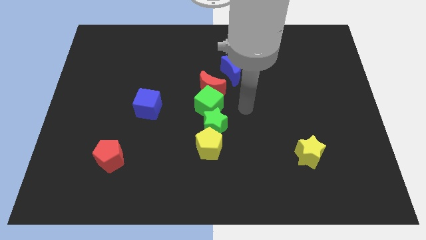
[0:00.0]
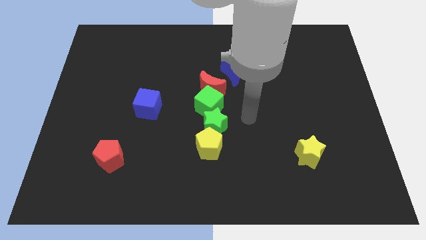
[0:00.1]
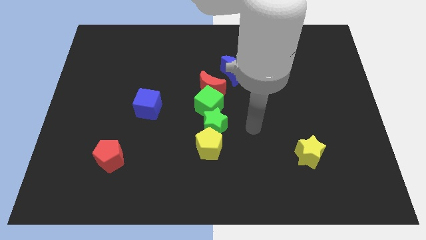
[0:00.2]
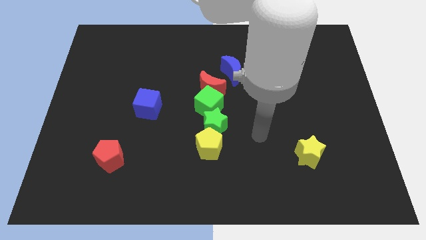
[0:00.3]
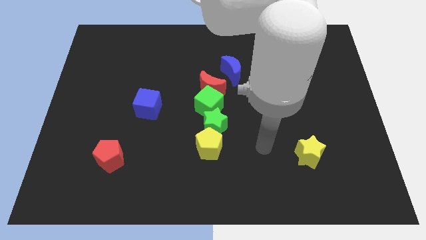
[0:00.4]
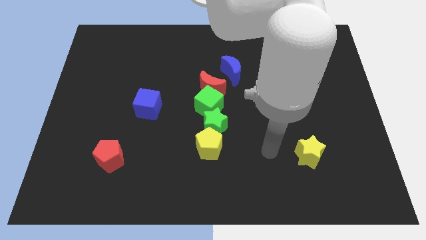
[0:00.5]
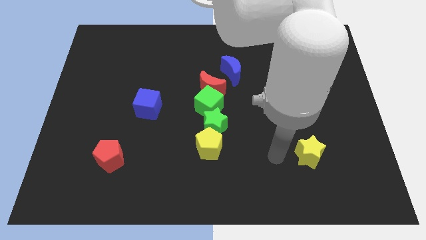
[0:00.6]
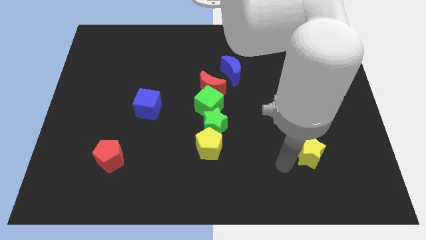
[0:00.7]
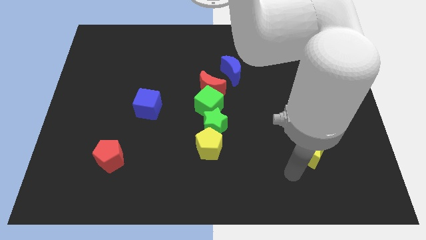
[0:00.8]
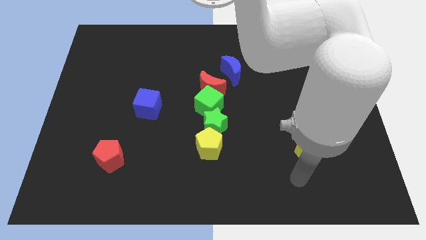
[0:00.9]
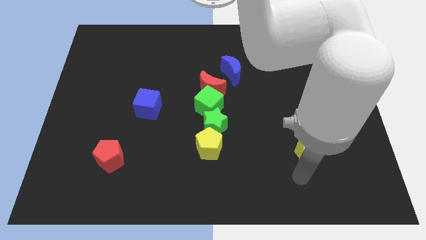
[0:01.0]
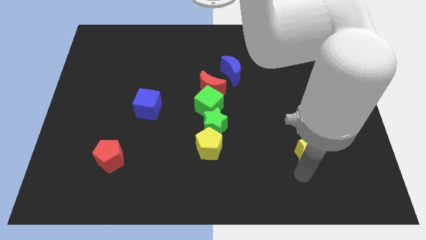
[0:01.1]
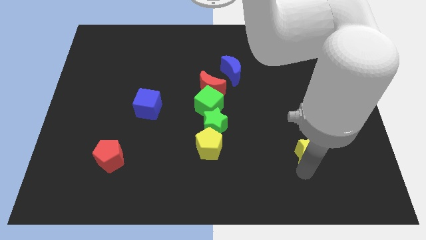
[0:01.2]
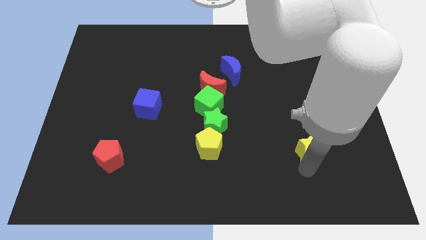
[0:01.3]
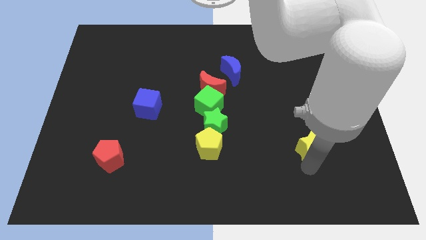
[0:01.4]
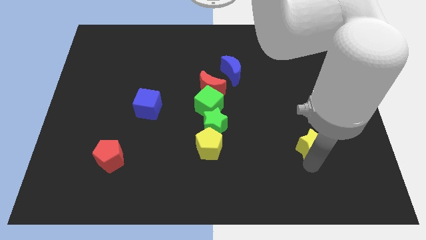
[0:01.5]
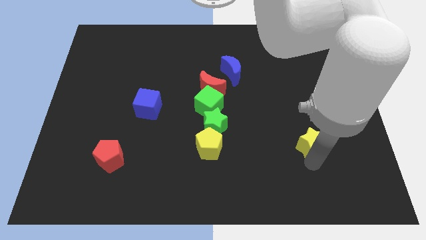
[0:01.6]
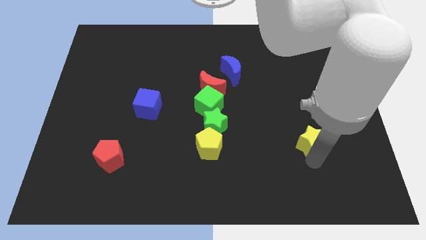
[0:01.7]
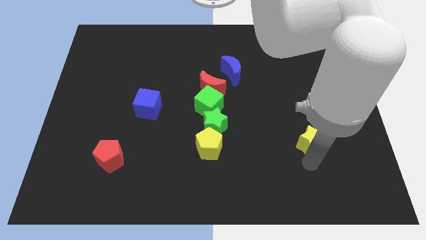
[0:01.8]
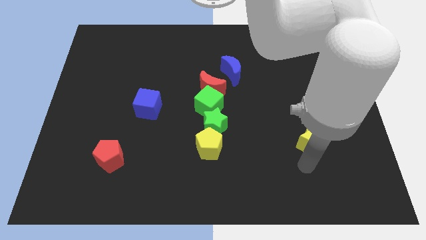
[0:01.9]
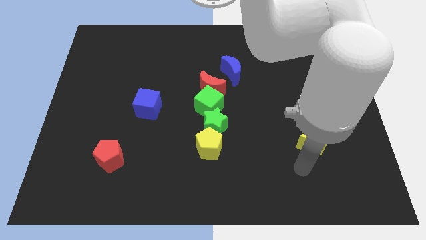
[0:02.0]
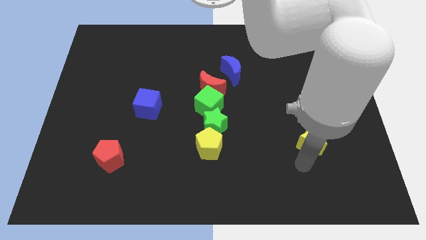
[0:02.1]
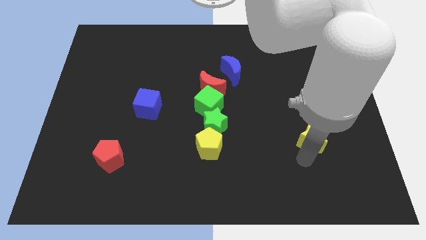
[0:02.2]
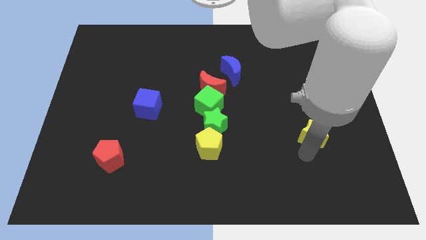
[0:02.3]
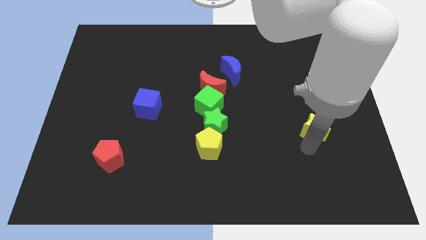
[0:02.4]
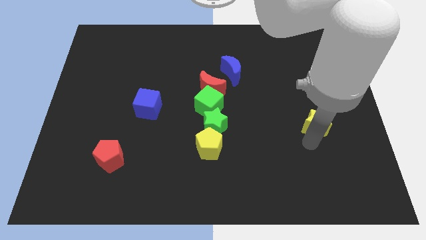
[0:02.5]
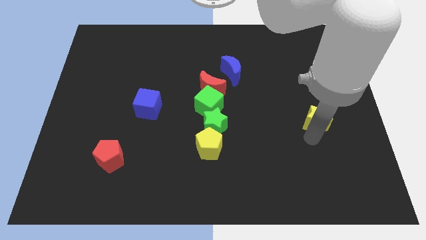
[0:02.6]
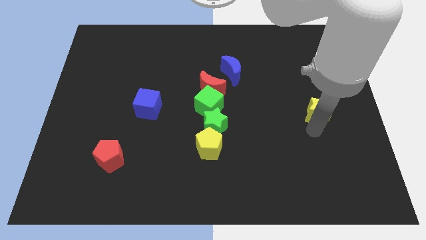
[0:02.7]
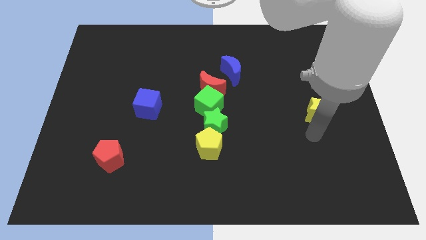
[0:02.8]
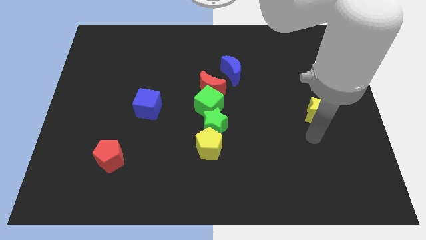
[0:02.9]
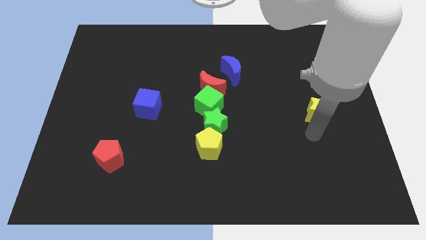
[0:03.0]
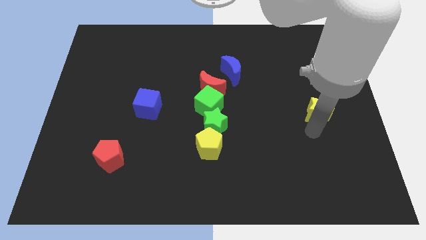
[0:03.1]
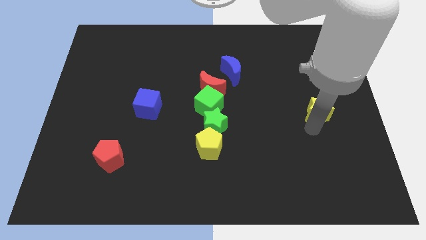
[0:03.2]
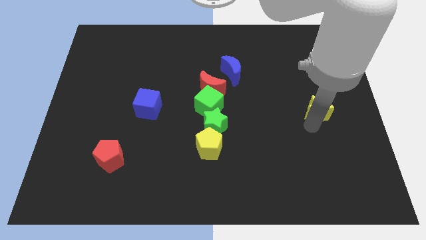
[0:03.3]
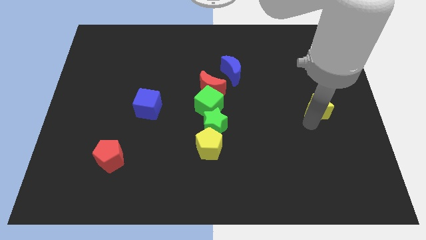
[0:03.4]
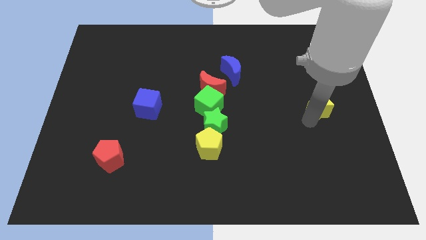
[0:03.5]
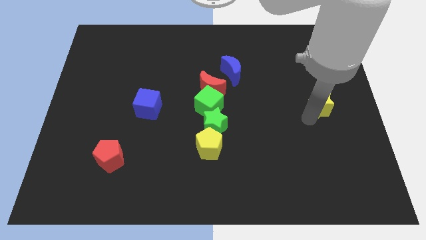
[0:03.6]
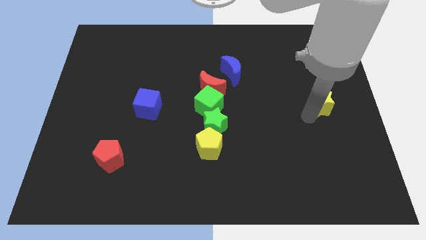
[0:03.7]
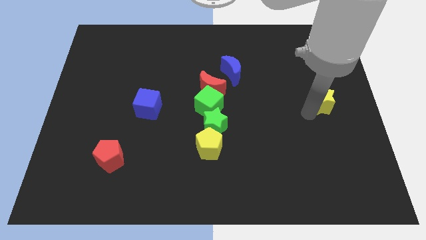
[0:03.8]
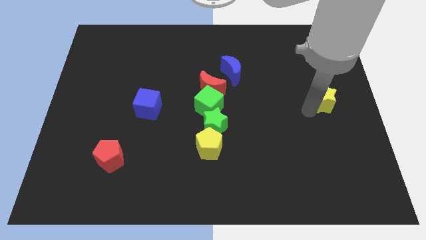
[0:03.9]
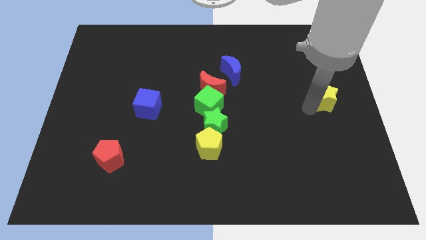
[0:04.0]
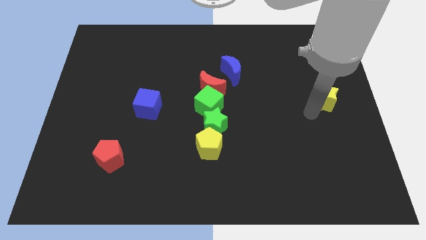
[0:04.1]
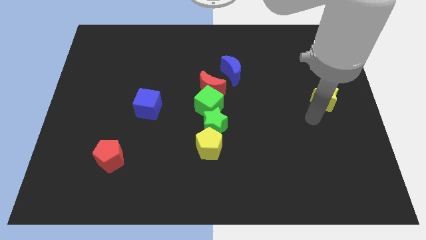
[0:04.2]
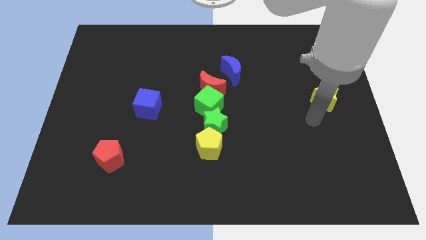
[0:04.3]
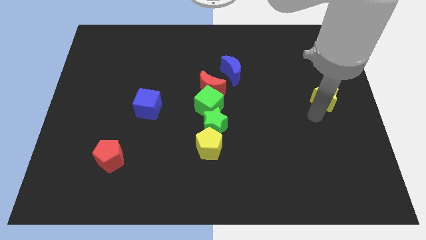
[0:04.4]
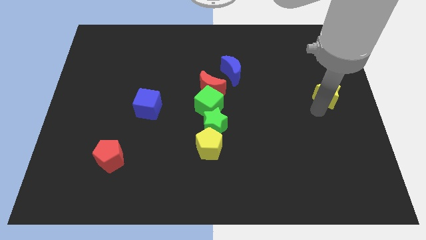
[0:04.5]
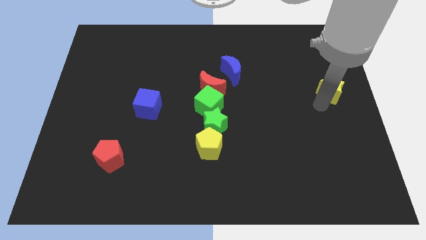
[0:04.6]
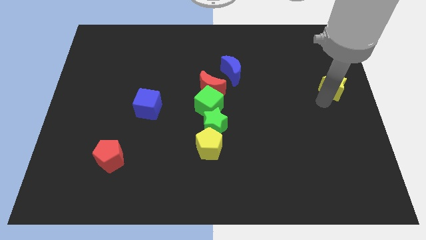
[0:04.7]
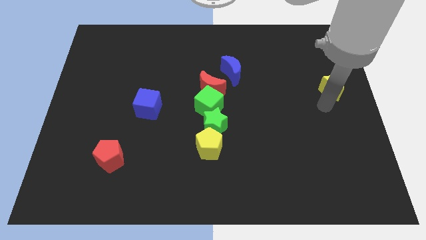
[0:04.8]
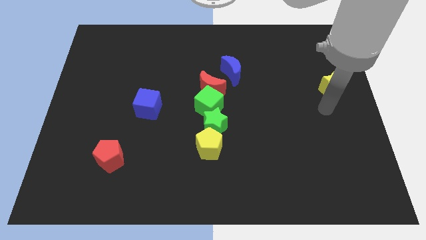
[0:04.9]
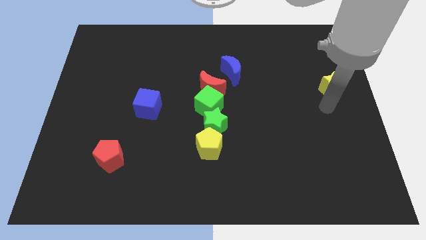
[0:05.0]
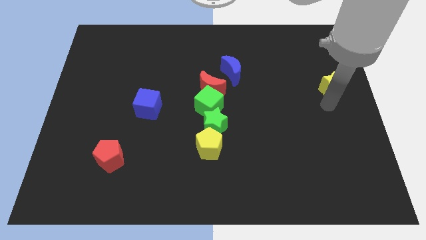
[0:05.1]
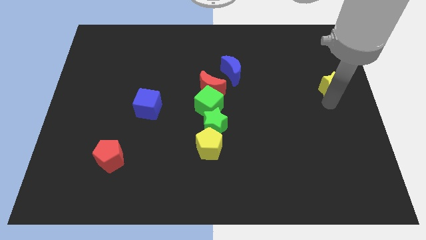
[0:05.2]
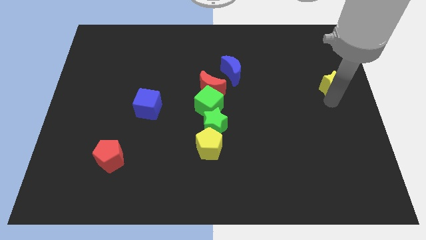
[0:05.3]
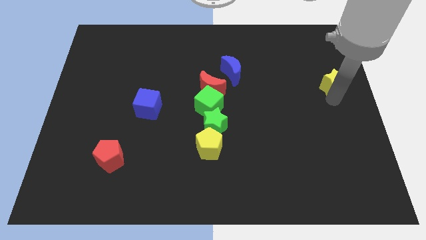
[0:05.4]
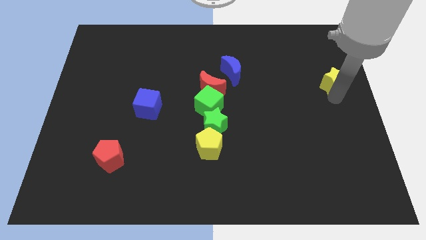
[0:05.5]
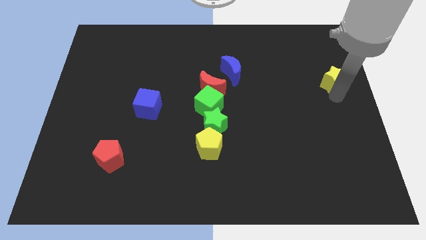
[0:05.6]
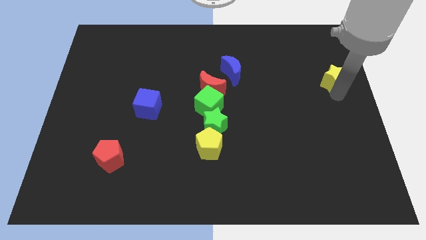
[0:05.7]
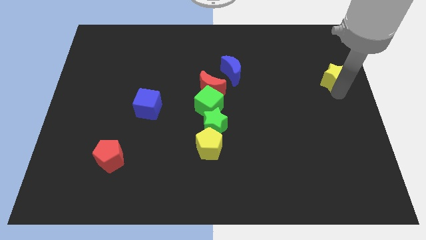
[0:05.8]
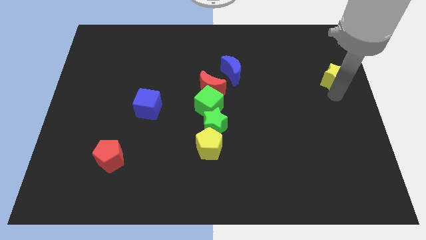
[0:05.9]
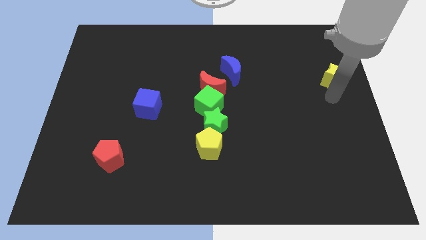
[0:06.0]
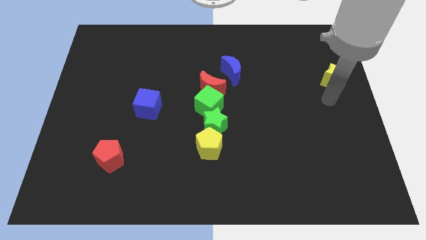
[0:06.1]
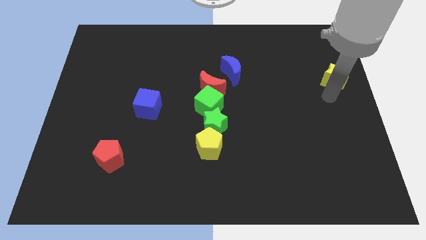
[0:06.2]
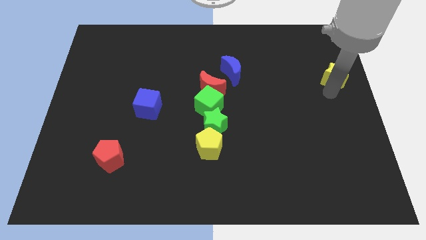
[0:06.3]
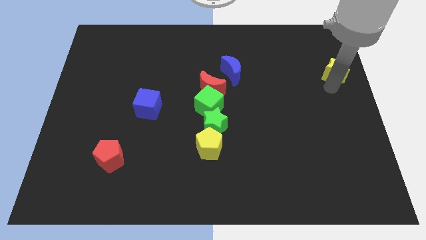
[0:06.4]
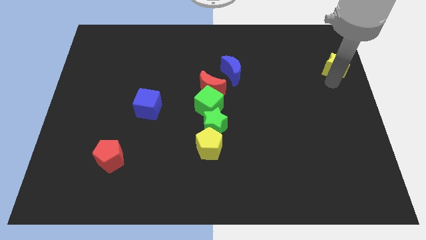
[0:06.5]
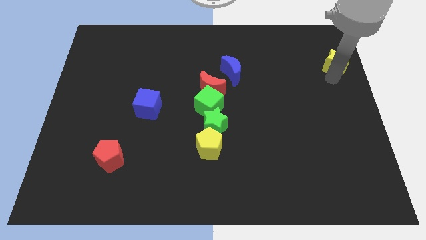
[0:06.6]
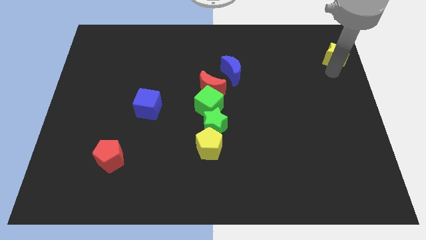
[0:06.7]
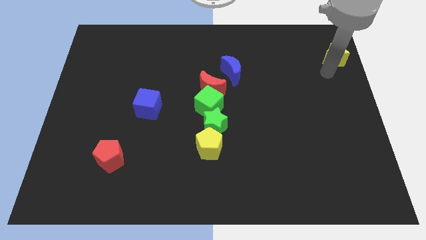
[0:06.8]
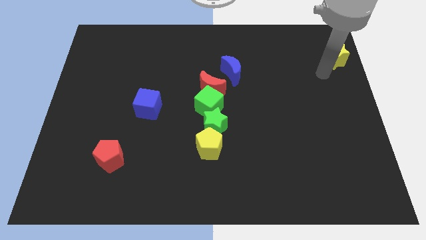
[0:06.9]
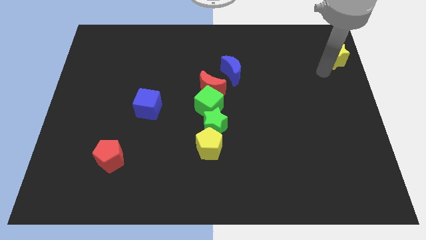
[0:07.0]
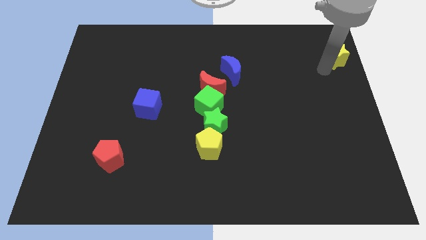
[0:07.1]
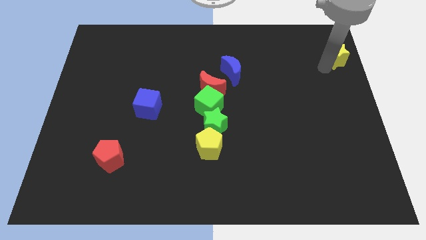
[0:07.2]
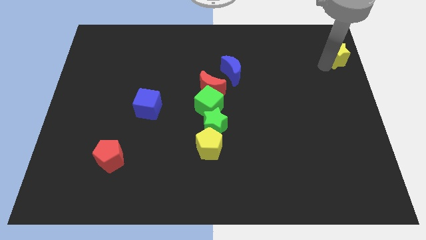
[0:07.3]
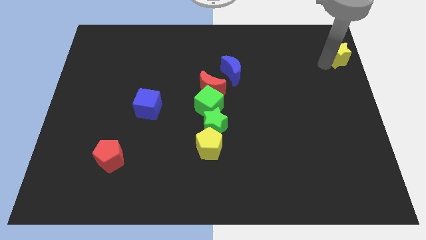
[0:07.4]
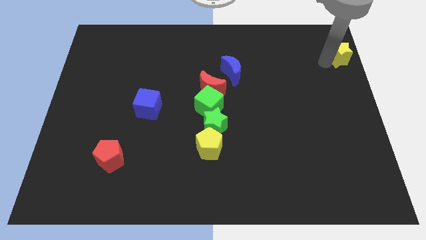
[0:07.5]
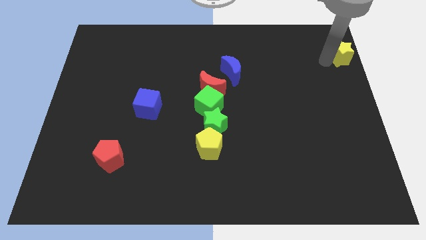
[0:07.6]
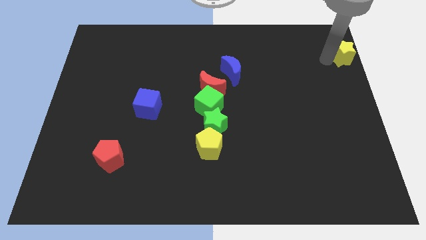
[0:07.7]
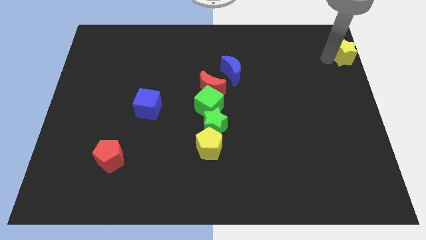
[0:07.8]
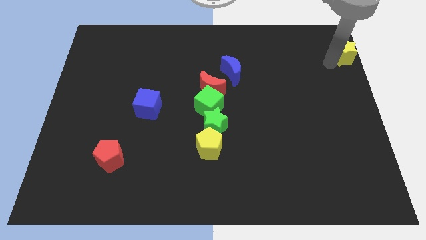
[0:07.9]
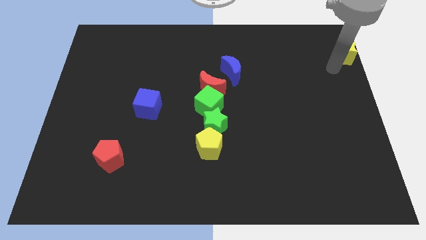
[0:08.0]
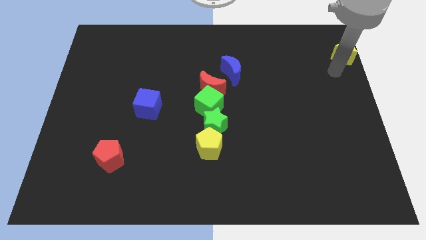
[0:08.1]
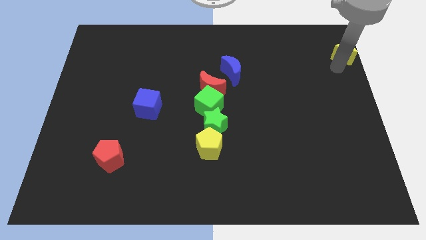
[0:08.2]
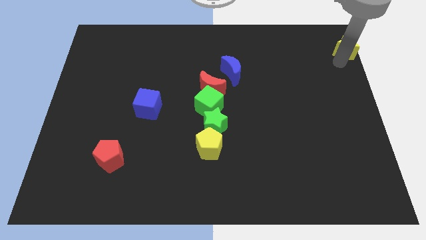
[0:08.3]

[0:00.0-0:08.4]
slide the yellow star to the upper right corner

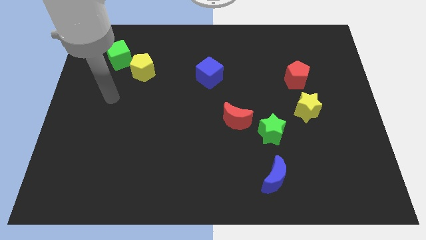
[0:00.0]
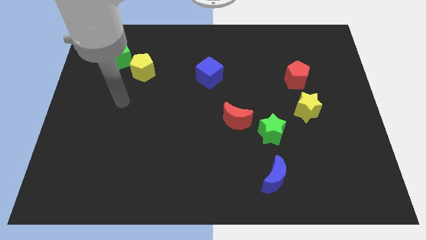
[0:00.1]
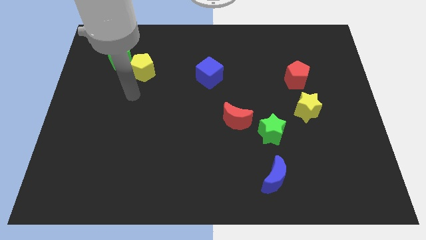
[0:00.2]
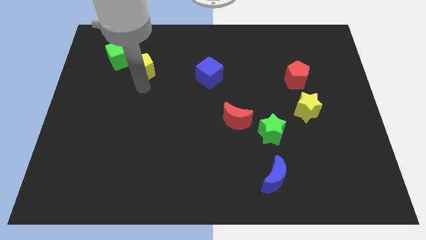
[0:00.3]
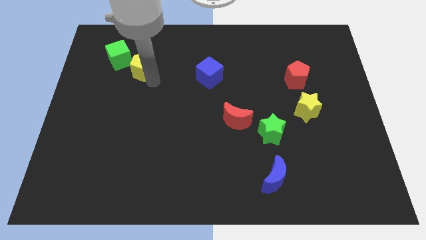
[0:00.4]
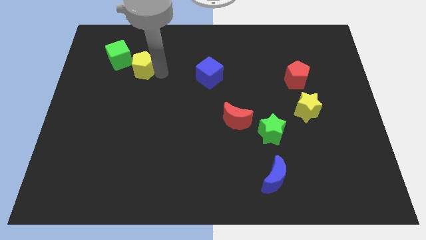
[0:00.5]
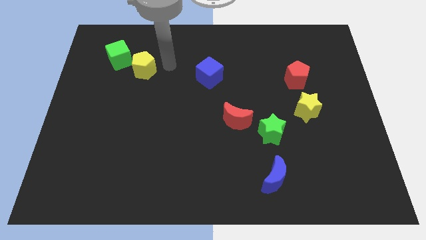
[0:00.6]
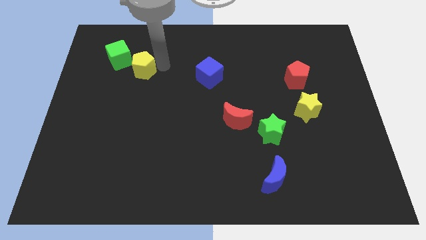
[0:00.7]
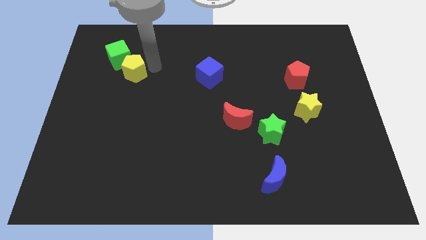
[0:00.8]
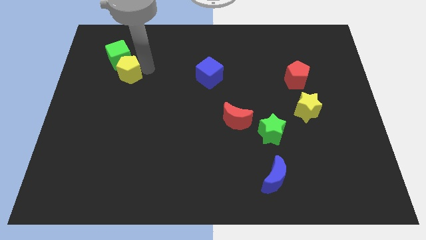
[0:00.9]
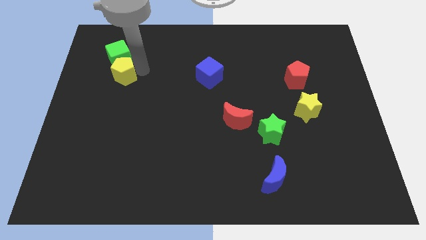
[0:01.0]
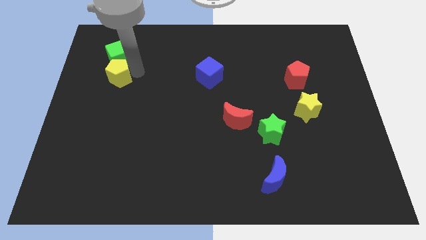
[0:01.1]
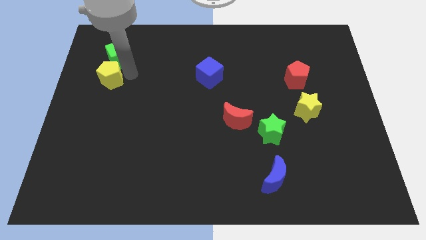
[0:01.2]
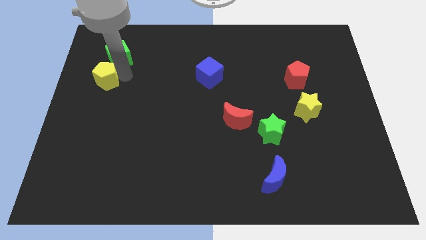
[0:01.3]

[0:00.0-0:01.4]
move the yellow pentagon to the left side
